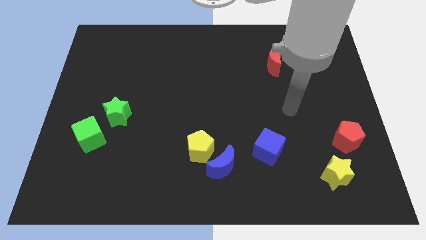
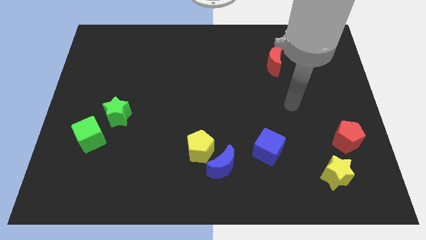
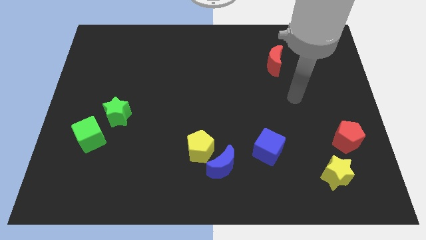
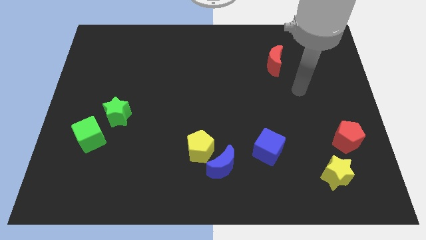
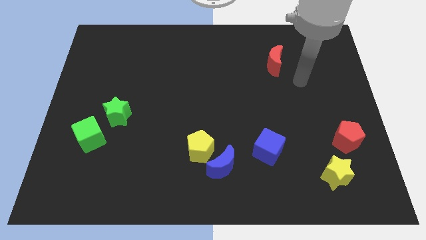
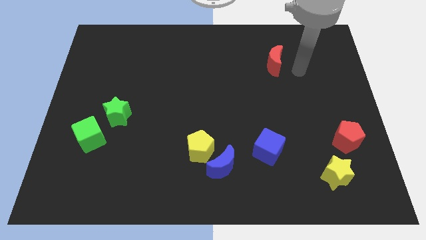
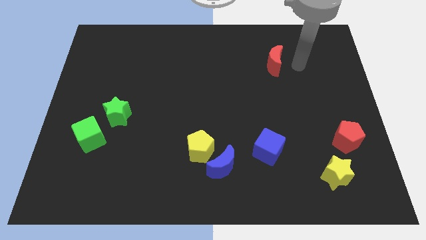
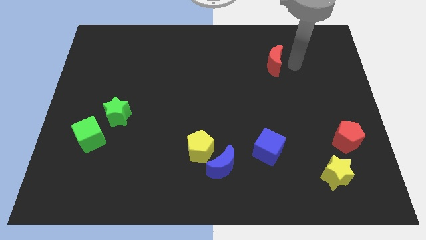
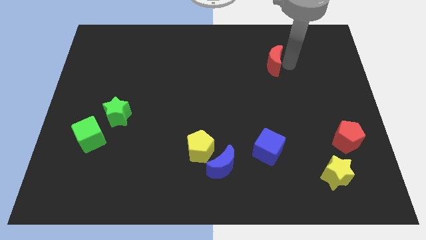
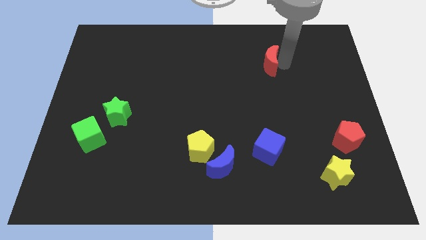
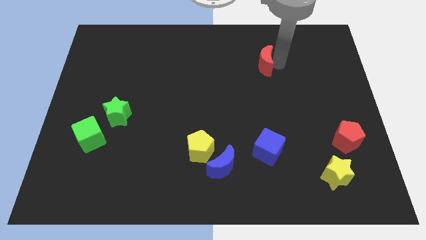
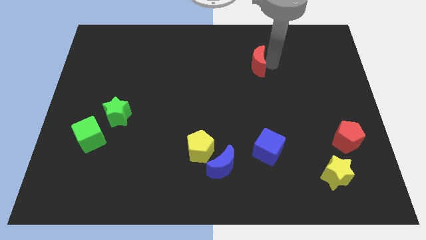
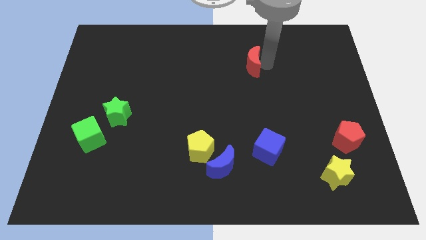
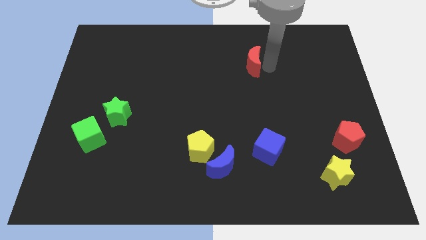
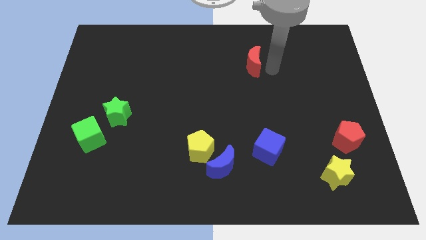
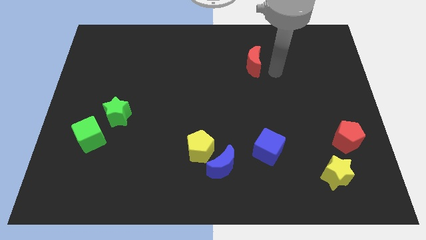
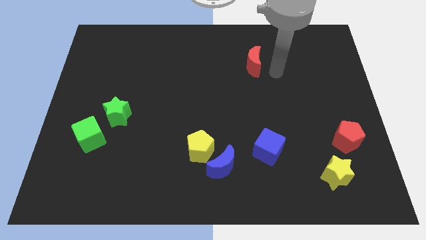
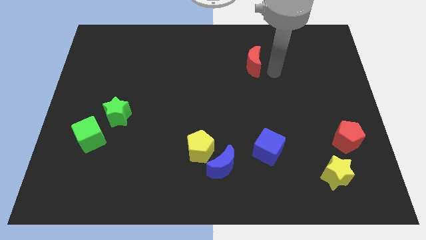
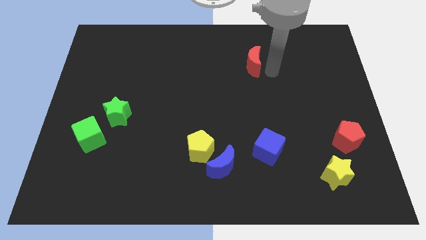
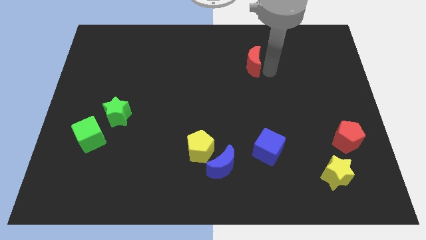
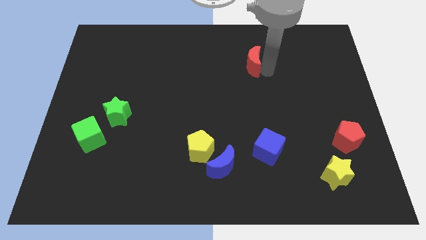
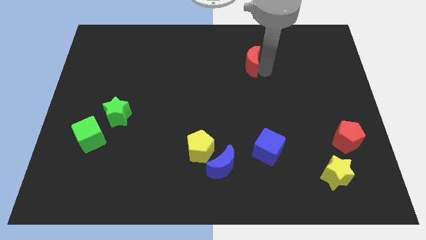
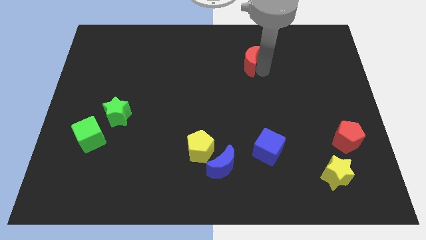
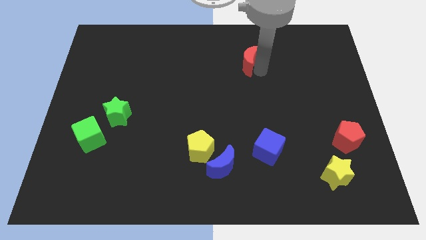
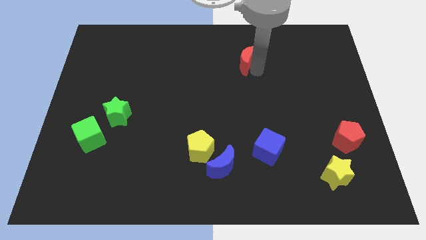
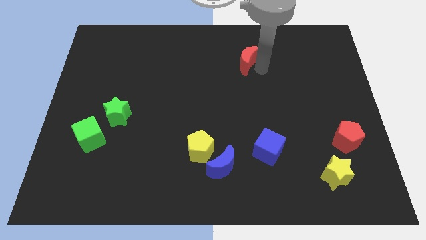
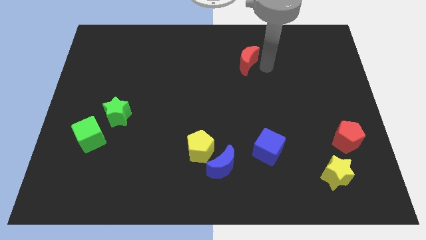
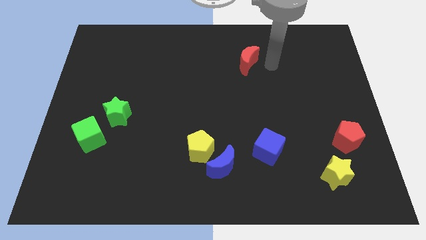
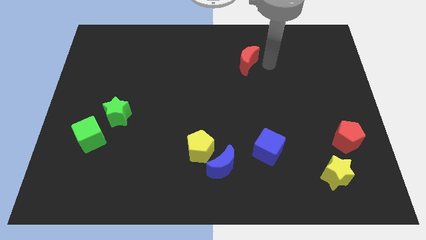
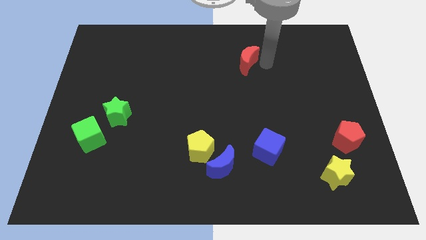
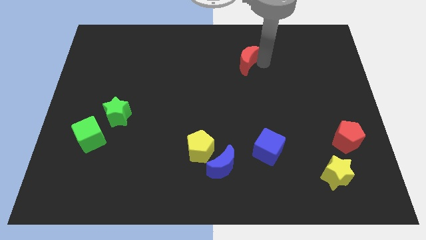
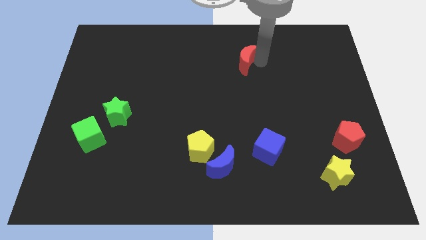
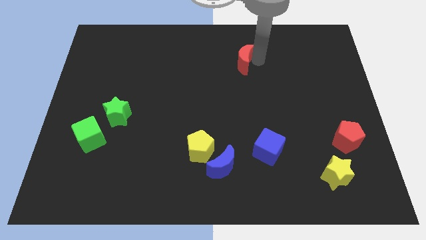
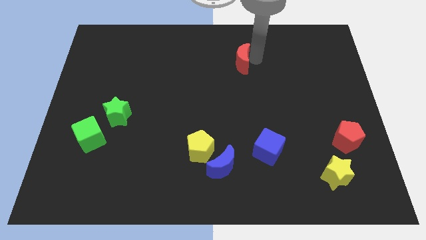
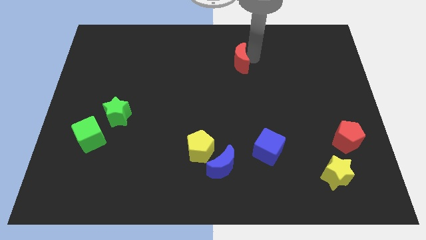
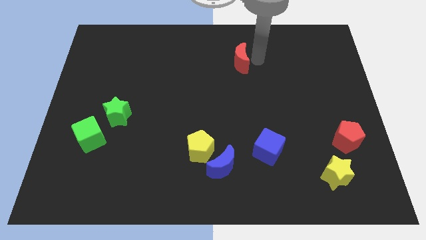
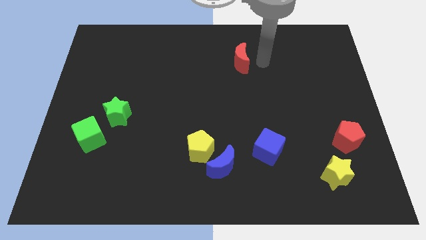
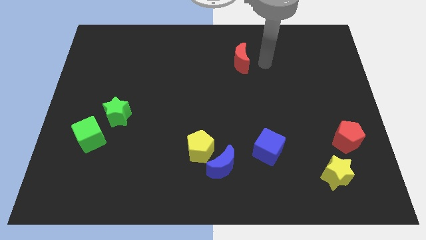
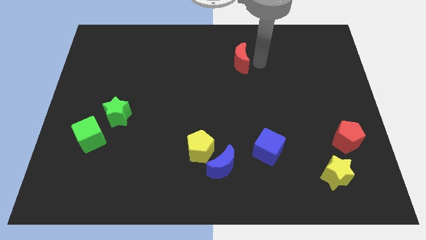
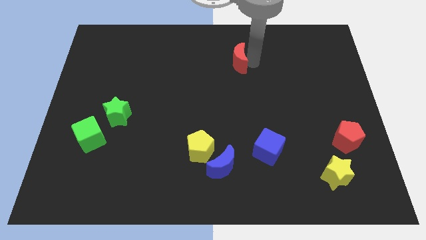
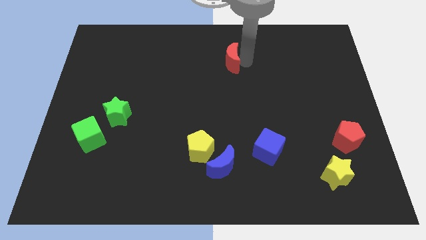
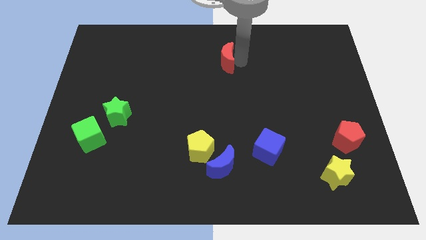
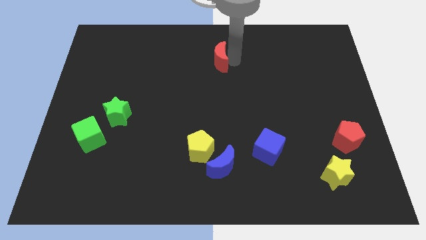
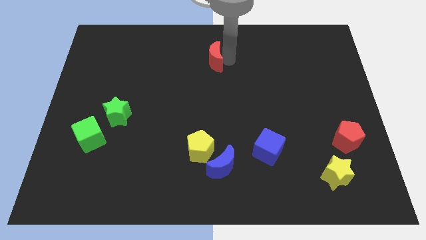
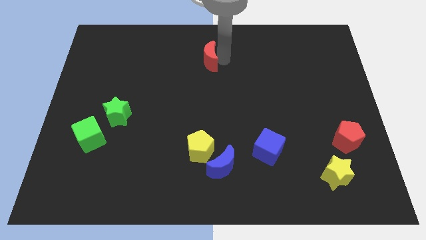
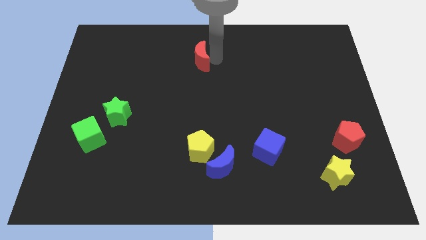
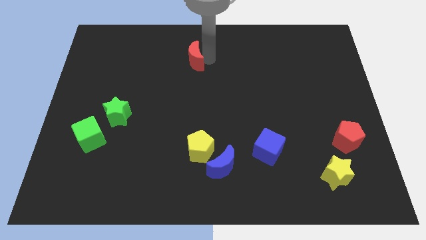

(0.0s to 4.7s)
slide the red moon to the left

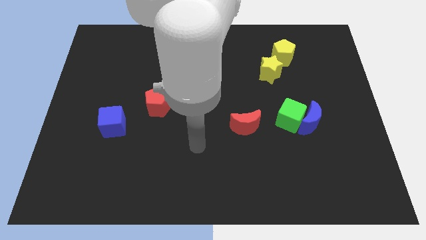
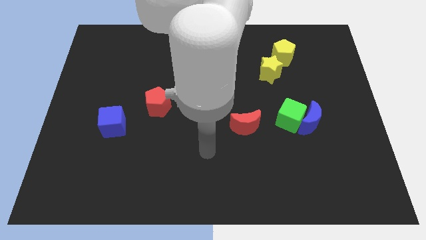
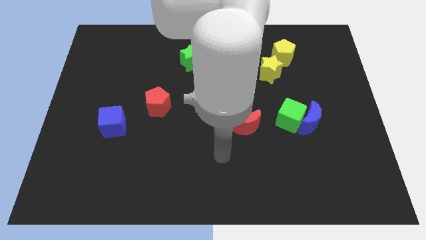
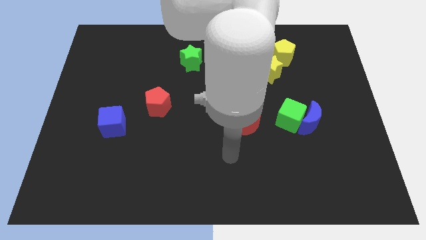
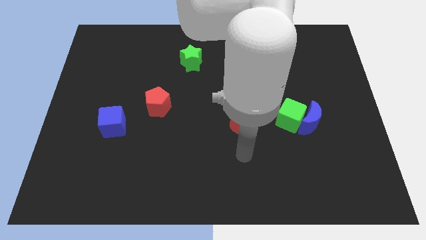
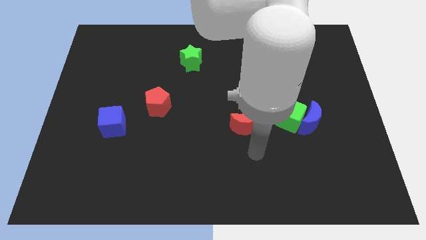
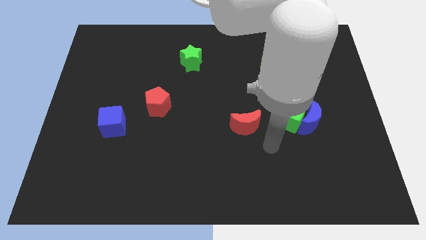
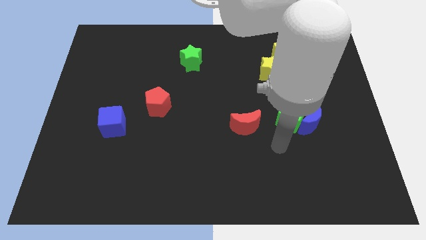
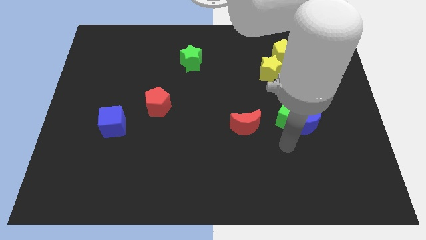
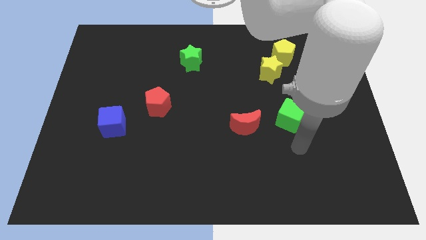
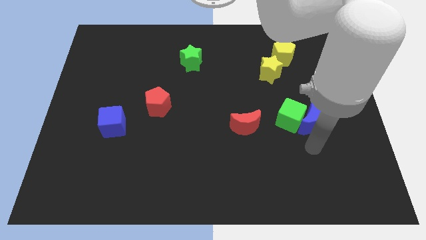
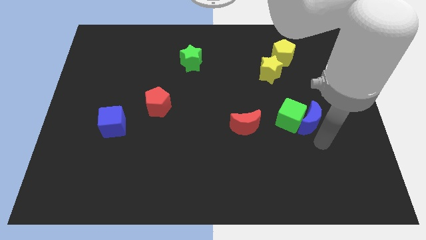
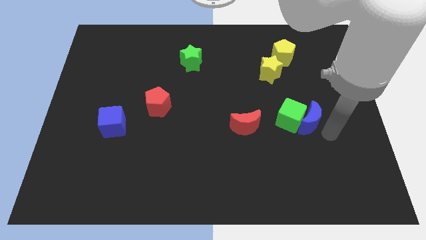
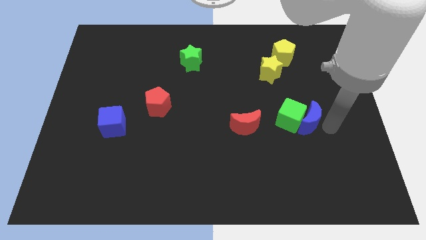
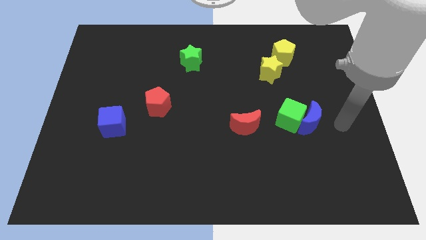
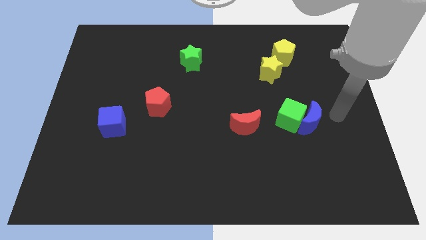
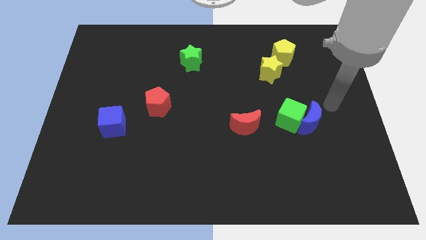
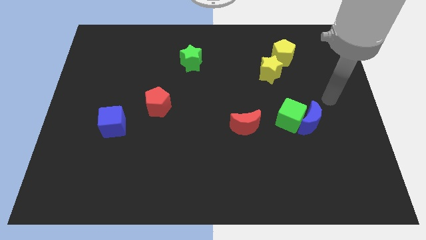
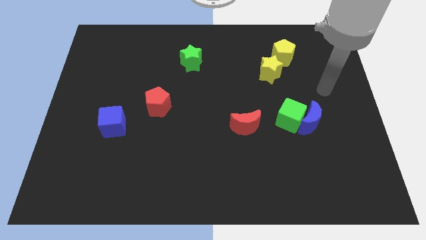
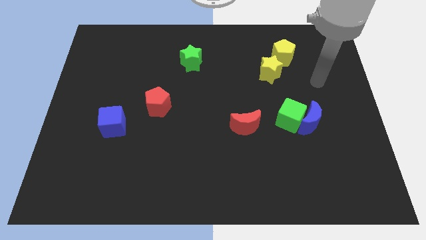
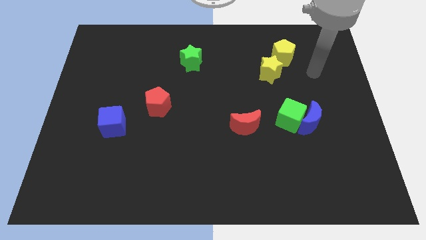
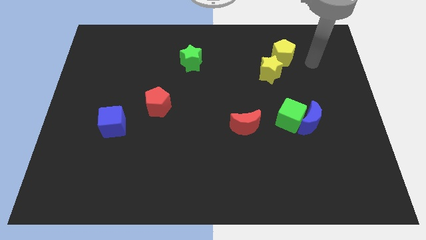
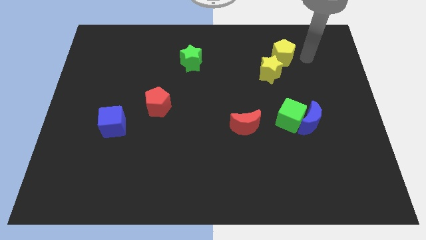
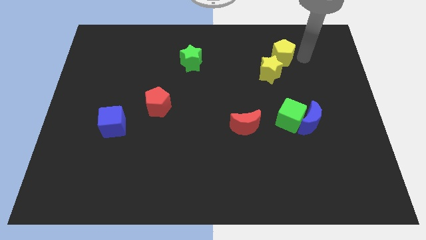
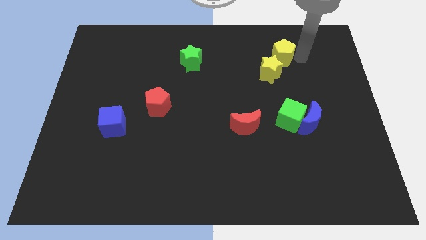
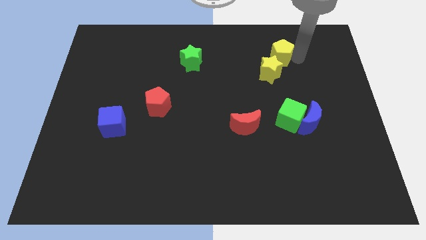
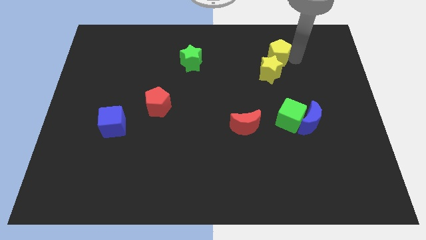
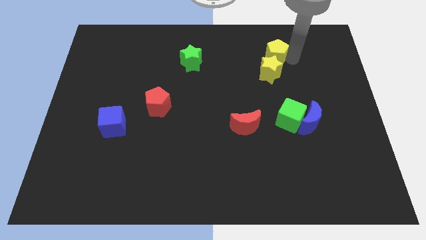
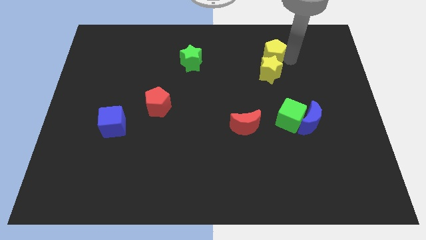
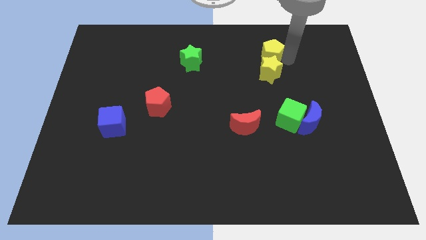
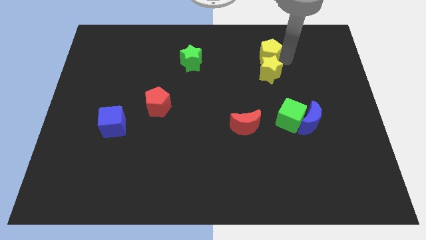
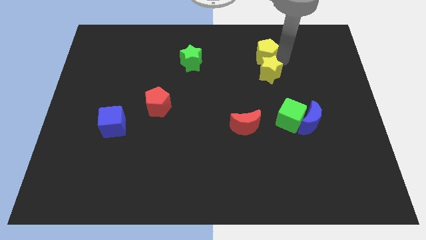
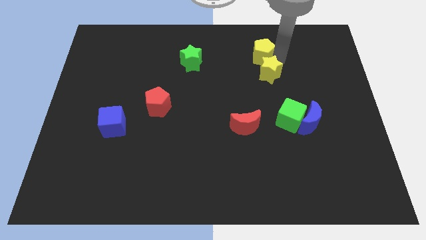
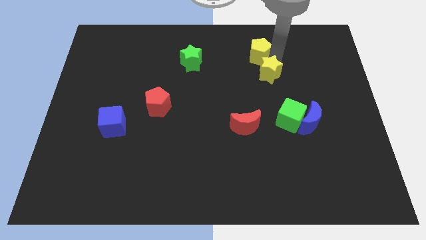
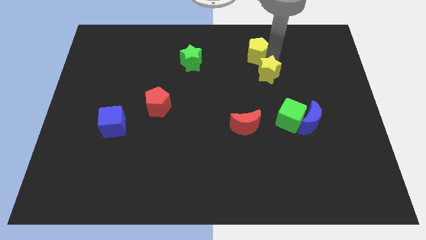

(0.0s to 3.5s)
push the yellow pentagon a little to the left
